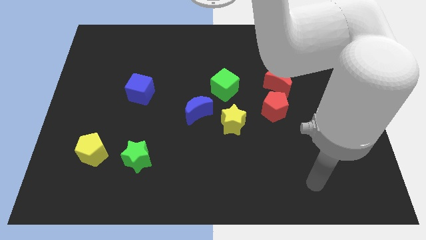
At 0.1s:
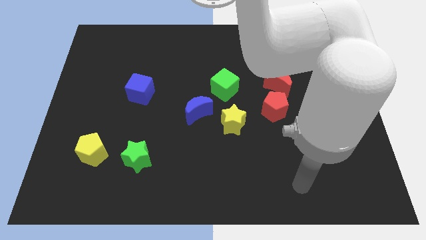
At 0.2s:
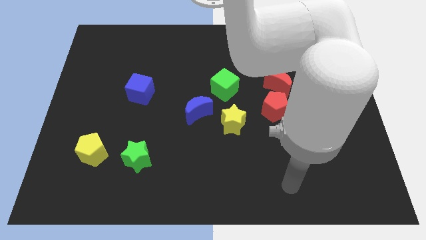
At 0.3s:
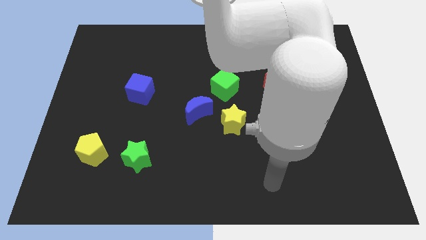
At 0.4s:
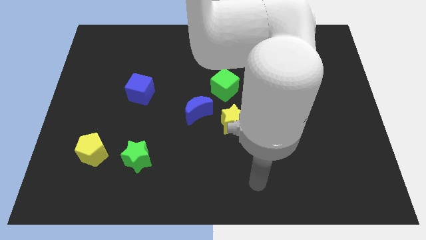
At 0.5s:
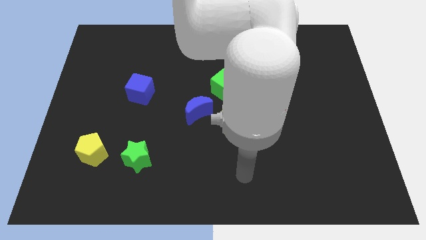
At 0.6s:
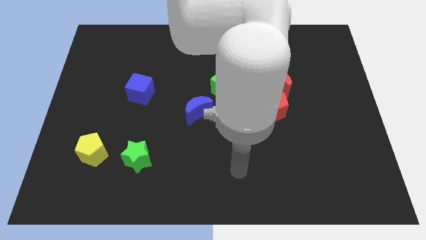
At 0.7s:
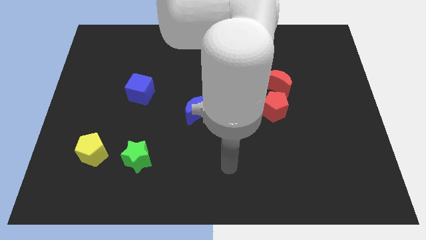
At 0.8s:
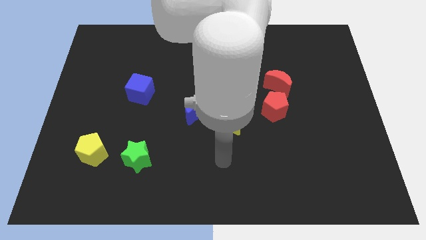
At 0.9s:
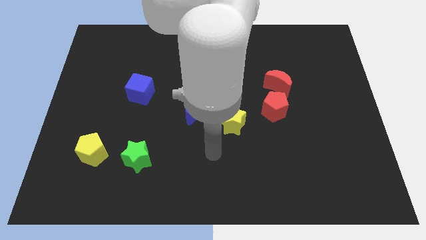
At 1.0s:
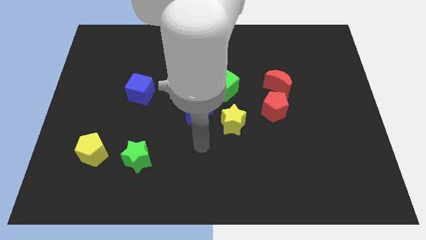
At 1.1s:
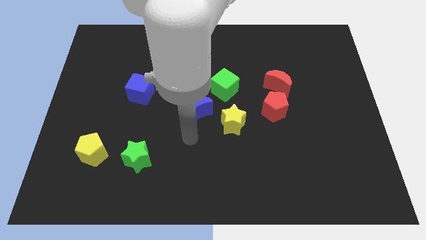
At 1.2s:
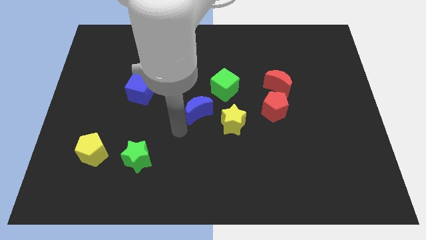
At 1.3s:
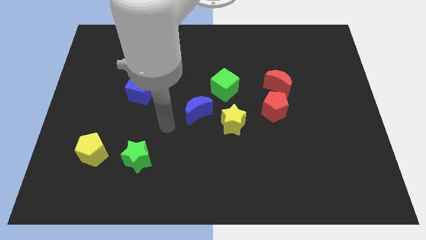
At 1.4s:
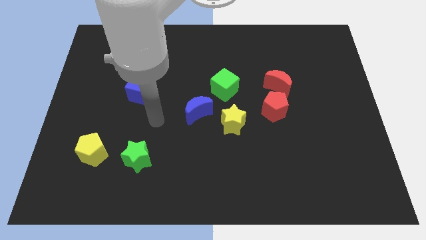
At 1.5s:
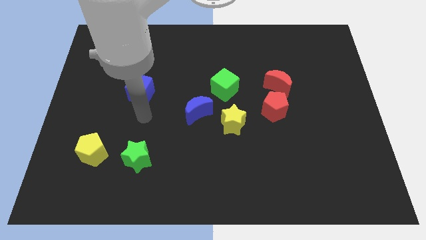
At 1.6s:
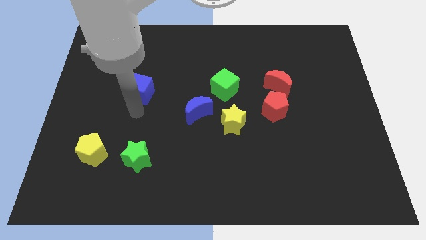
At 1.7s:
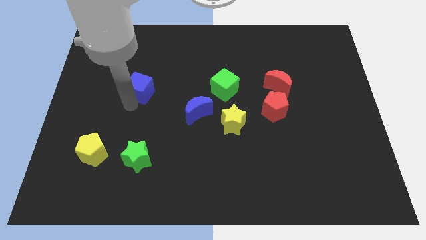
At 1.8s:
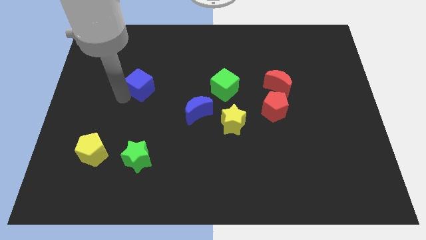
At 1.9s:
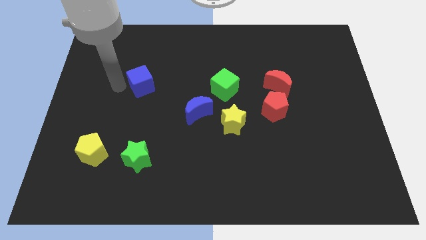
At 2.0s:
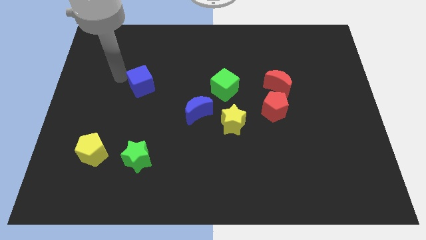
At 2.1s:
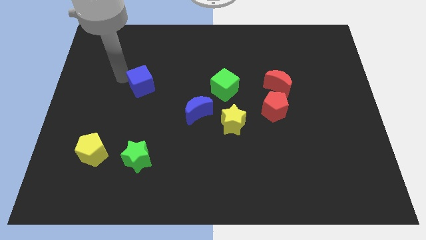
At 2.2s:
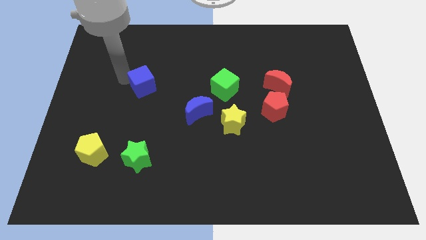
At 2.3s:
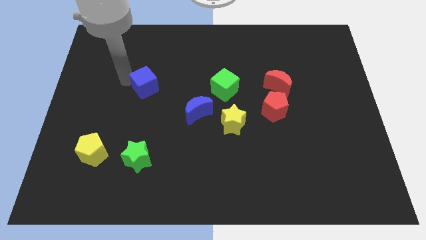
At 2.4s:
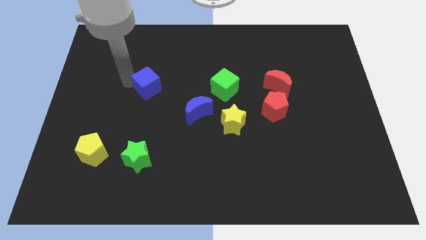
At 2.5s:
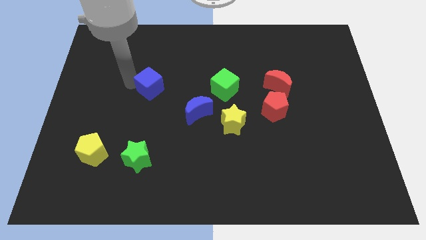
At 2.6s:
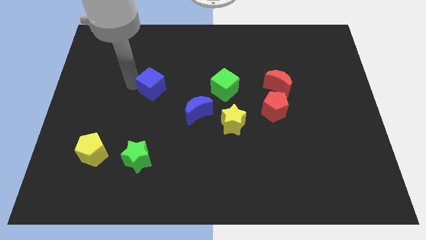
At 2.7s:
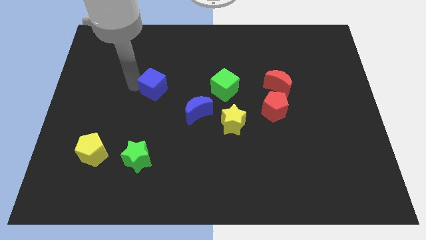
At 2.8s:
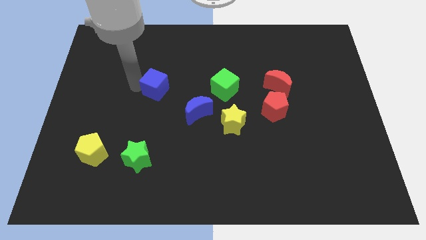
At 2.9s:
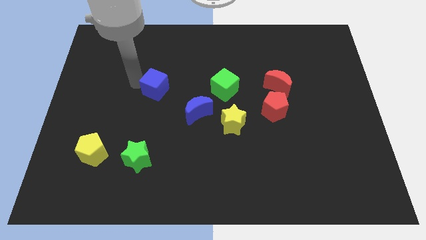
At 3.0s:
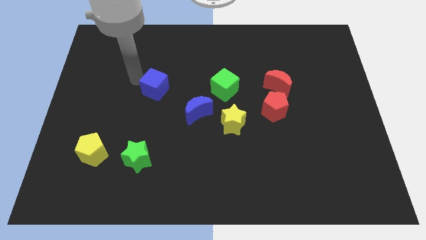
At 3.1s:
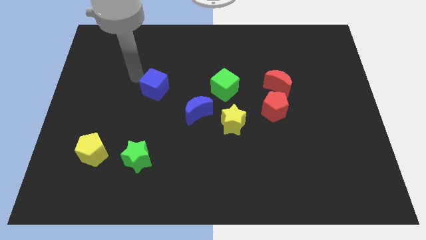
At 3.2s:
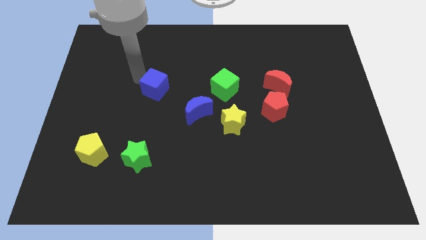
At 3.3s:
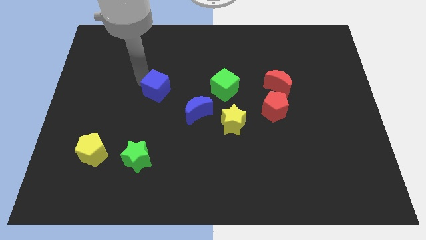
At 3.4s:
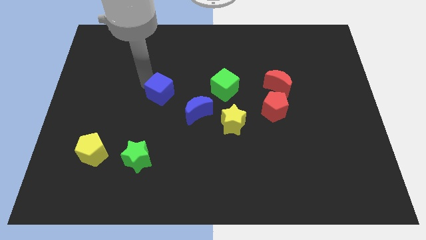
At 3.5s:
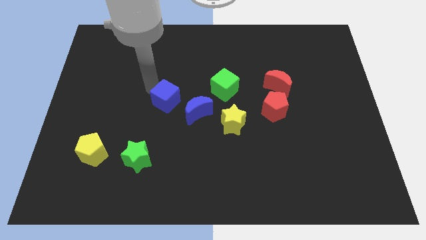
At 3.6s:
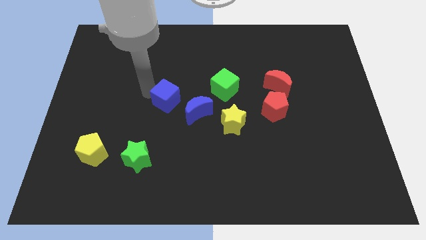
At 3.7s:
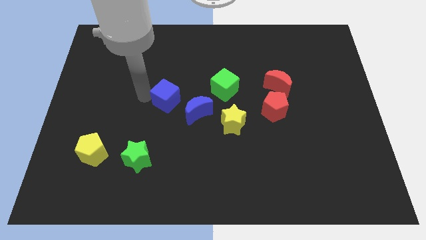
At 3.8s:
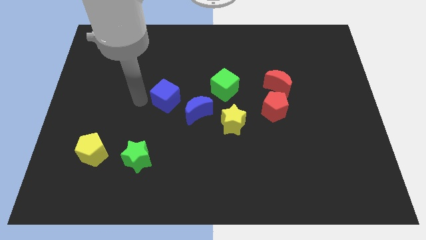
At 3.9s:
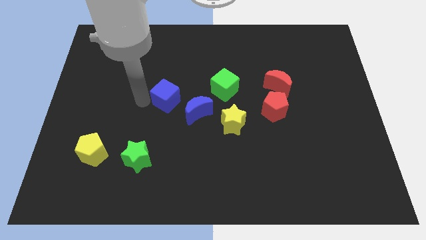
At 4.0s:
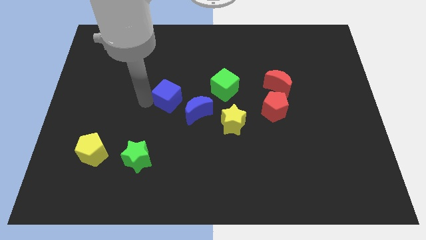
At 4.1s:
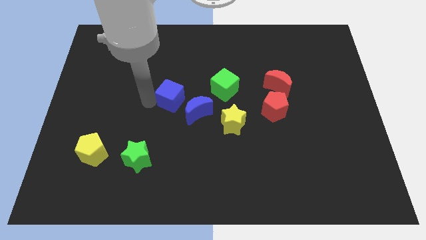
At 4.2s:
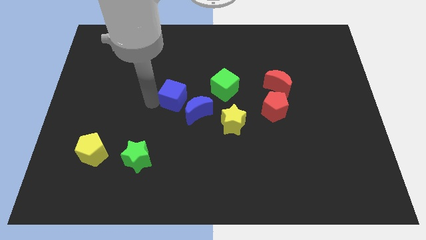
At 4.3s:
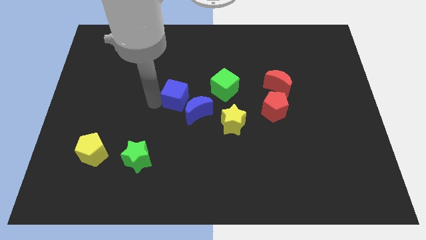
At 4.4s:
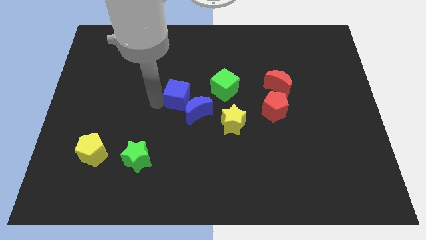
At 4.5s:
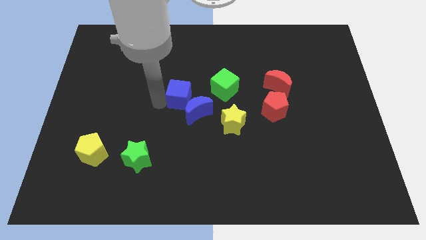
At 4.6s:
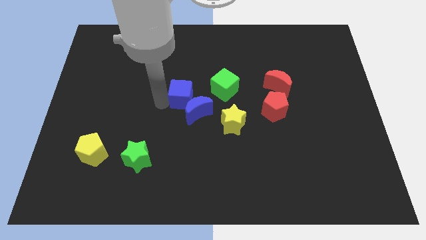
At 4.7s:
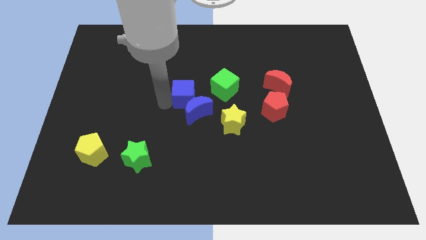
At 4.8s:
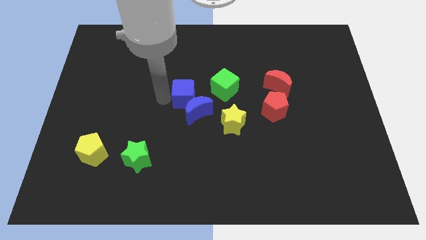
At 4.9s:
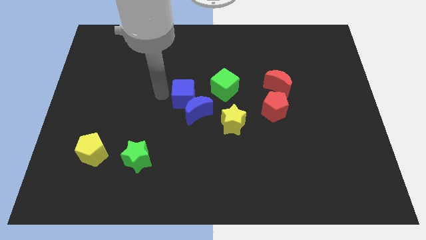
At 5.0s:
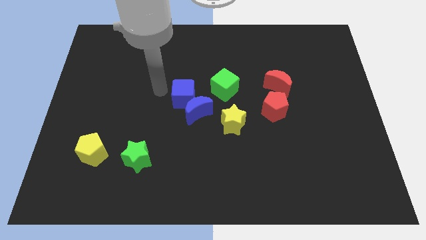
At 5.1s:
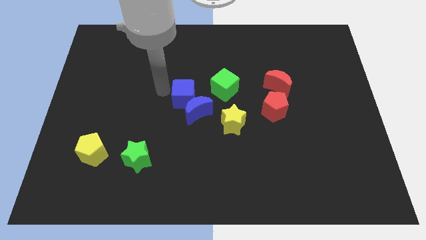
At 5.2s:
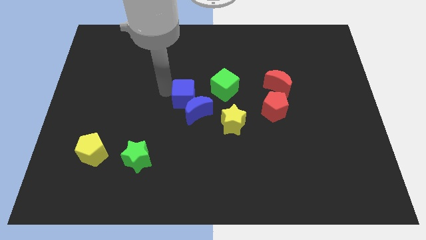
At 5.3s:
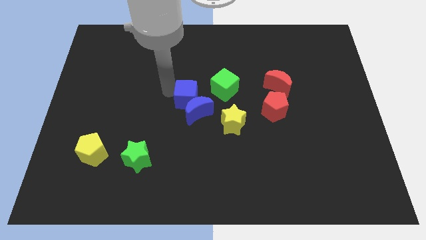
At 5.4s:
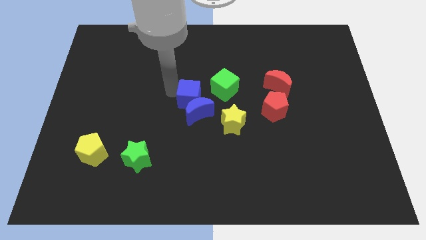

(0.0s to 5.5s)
put the blue cube to the top left of the yellow star

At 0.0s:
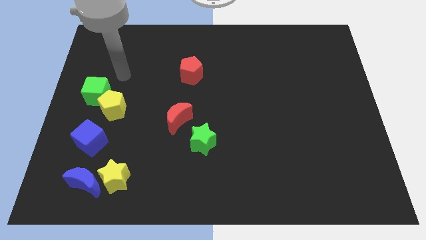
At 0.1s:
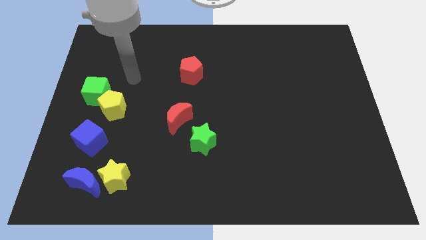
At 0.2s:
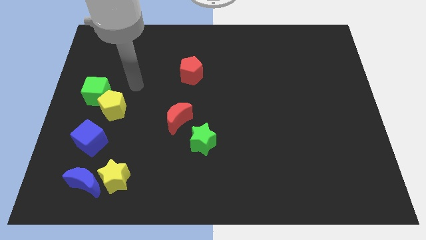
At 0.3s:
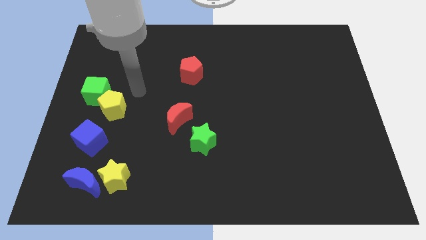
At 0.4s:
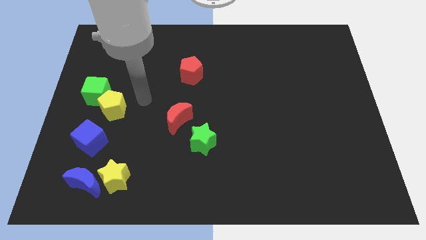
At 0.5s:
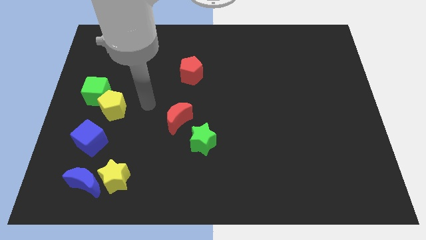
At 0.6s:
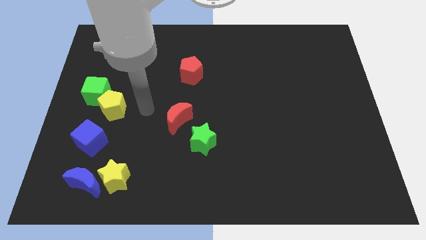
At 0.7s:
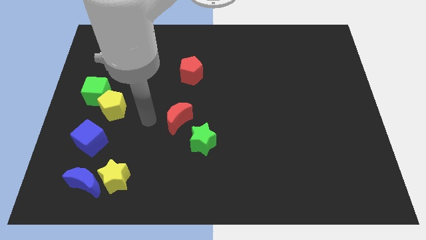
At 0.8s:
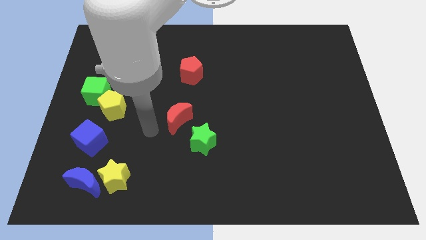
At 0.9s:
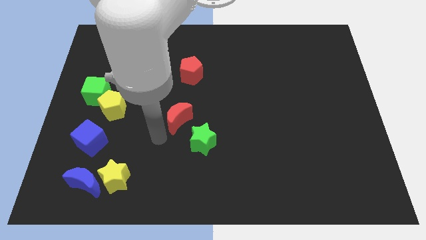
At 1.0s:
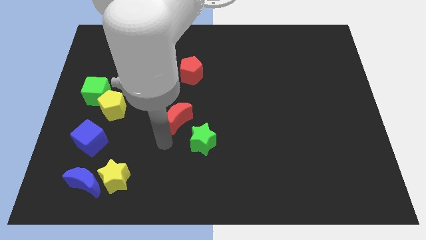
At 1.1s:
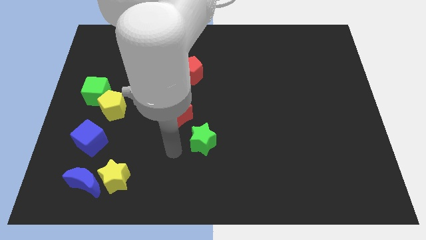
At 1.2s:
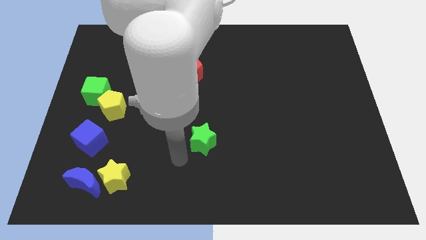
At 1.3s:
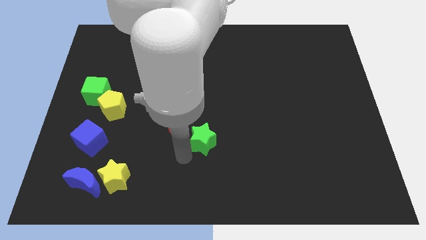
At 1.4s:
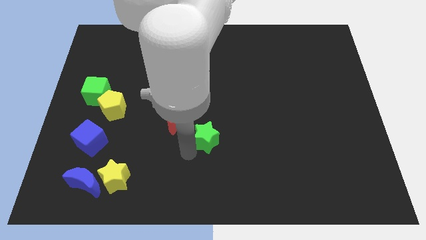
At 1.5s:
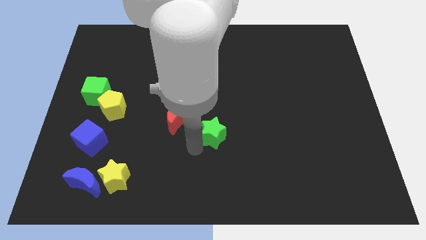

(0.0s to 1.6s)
move the green star right of the red moon
